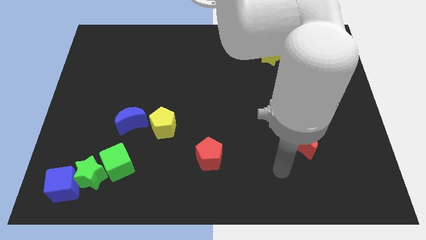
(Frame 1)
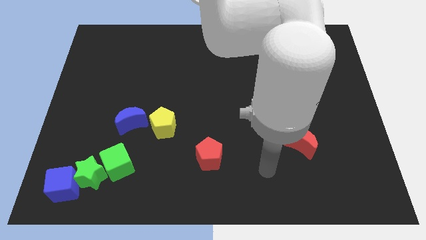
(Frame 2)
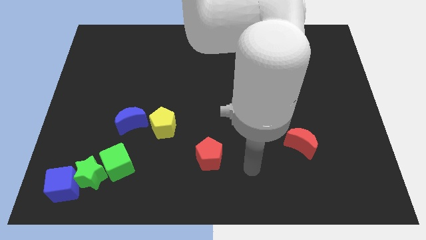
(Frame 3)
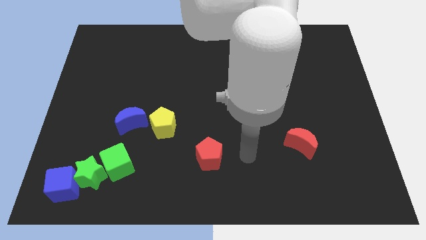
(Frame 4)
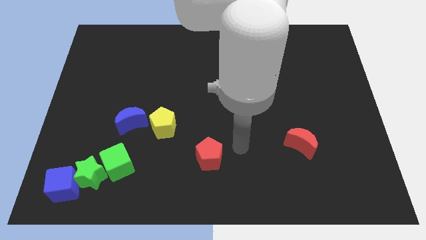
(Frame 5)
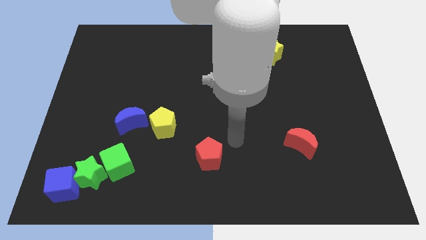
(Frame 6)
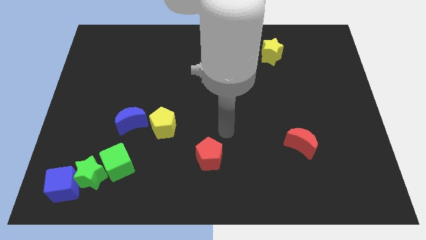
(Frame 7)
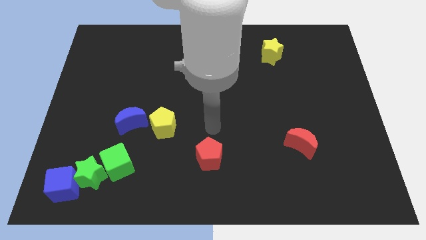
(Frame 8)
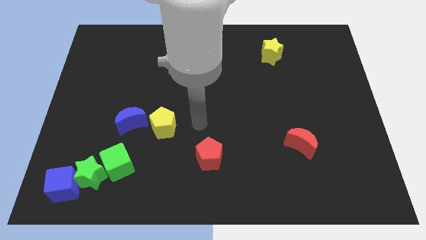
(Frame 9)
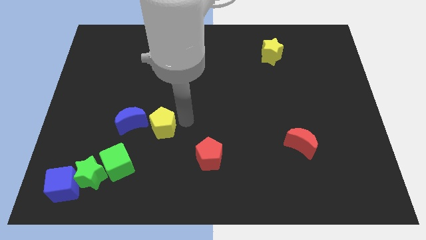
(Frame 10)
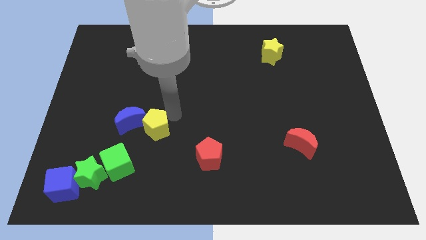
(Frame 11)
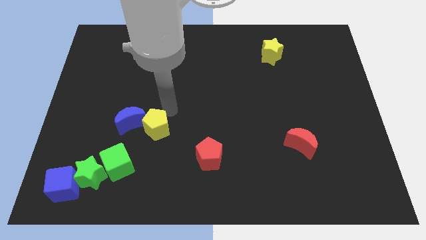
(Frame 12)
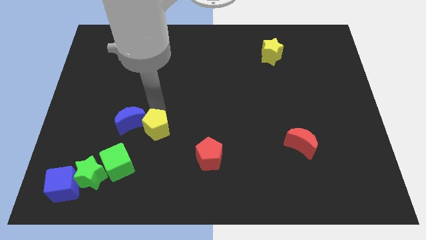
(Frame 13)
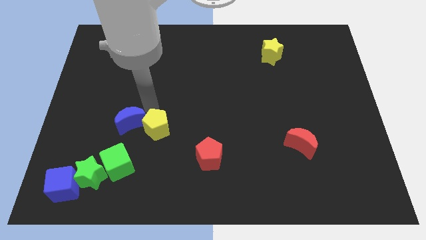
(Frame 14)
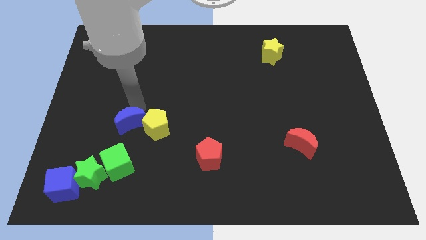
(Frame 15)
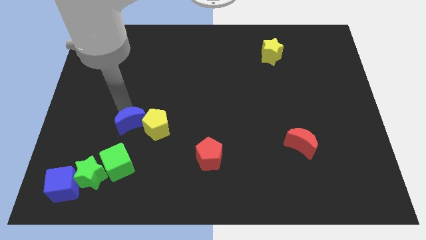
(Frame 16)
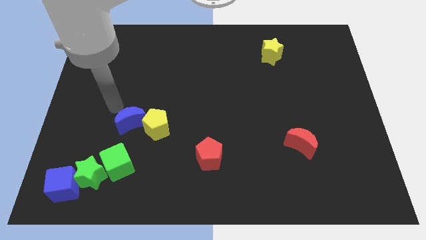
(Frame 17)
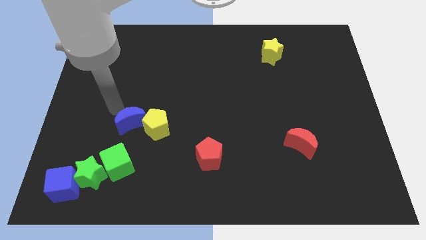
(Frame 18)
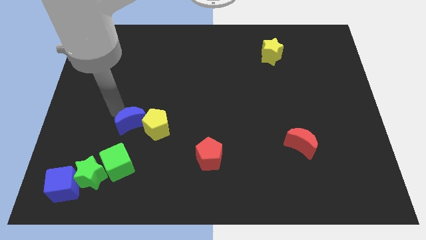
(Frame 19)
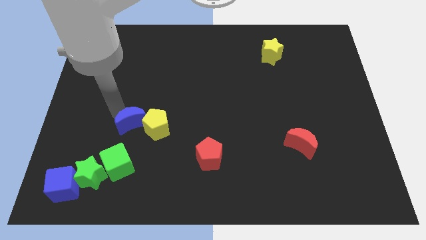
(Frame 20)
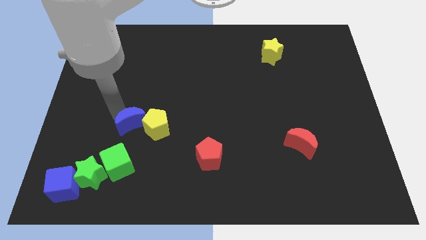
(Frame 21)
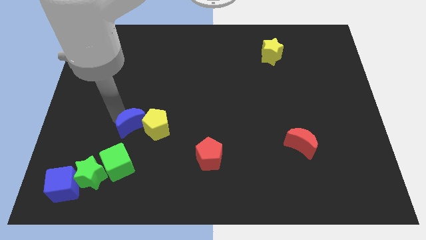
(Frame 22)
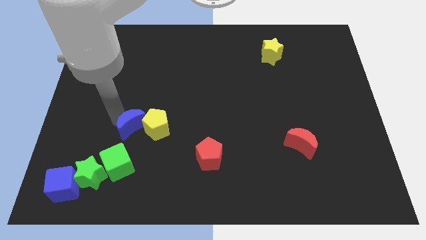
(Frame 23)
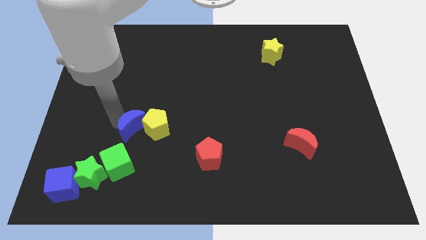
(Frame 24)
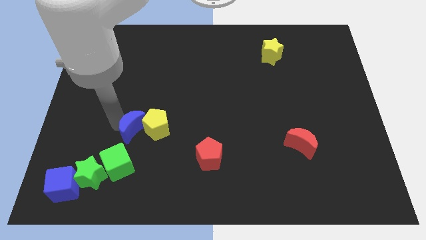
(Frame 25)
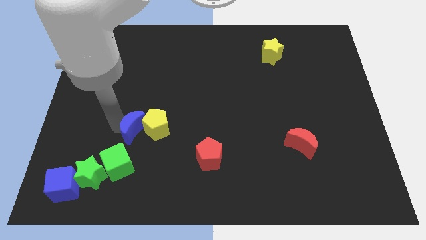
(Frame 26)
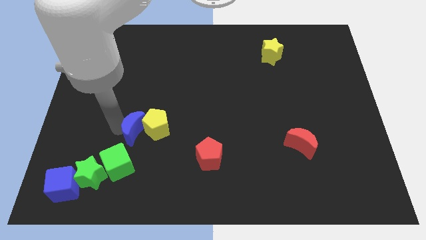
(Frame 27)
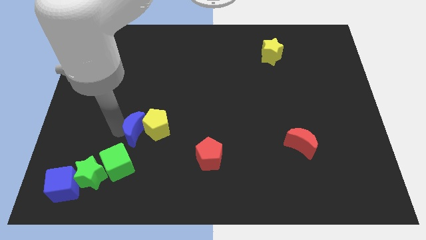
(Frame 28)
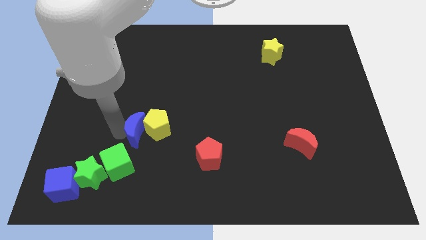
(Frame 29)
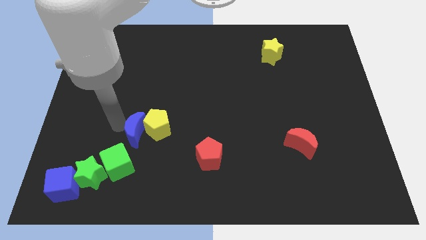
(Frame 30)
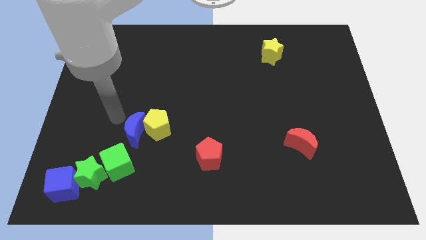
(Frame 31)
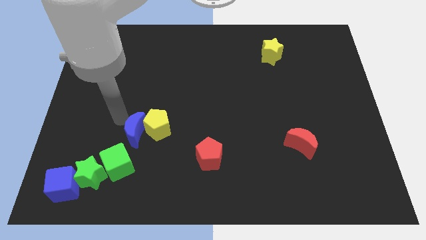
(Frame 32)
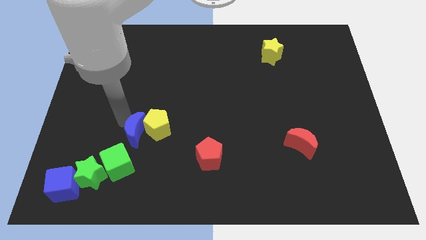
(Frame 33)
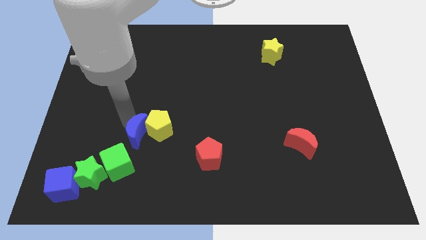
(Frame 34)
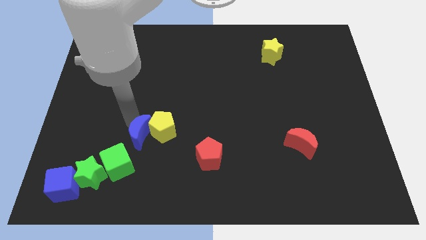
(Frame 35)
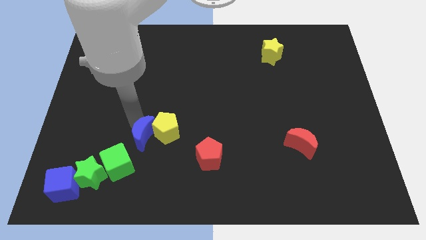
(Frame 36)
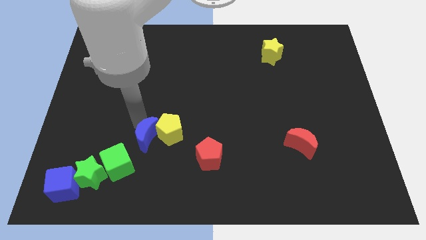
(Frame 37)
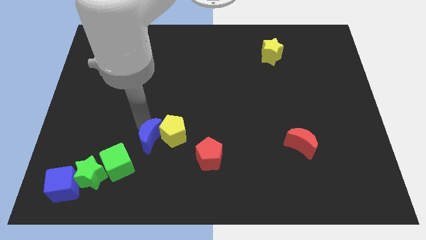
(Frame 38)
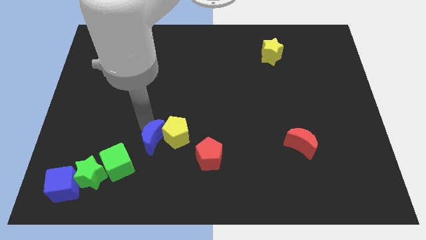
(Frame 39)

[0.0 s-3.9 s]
slightly push the blue moon diagonally downwards and right

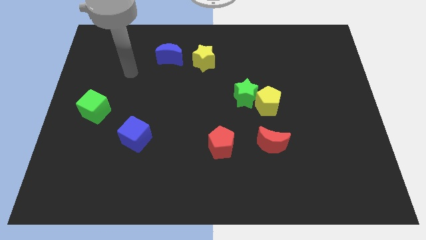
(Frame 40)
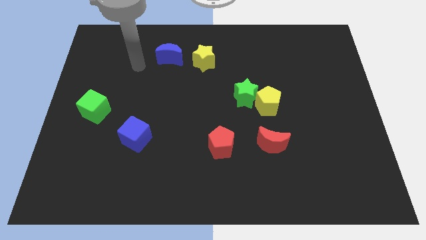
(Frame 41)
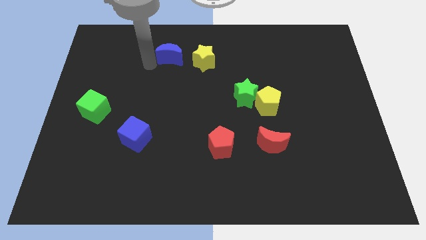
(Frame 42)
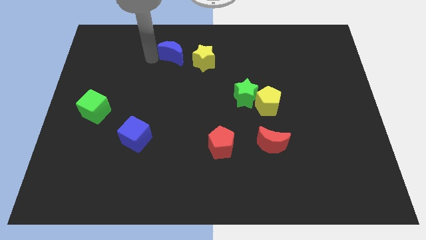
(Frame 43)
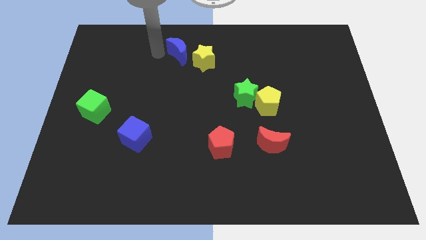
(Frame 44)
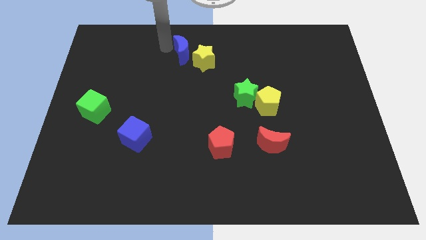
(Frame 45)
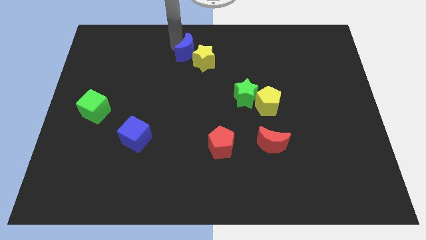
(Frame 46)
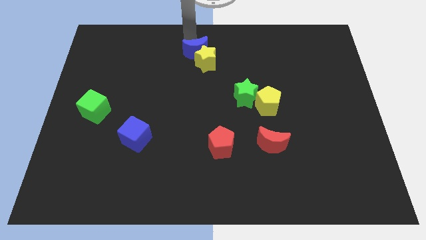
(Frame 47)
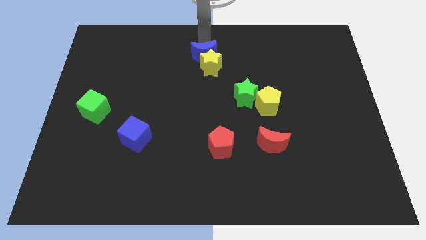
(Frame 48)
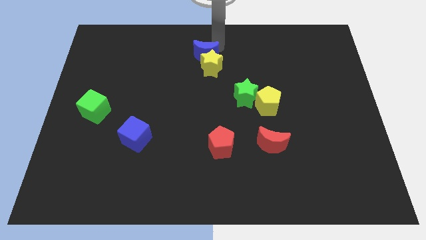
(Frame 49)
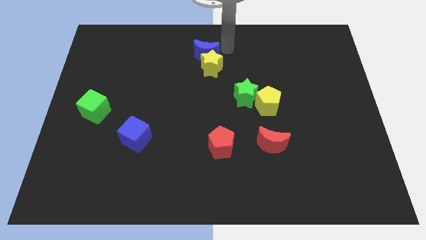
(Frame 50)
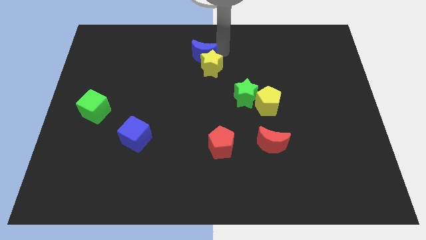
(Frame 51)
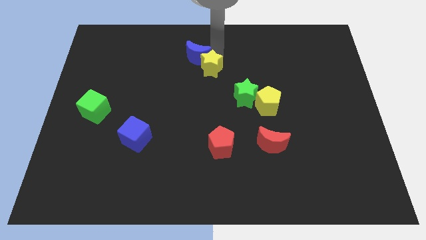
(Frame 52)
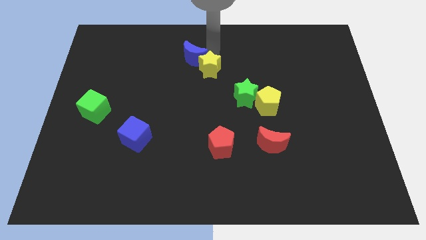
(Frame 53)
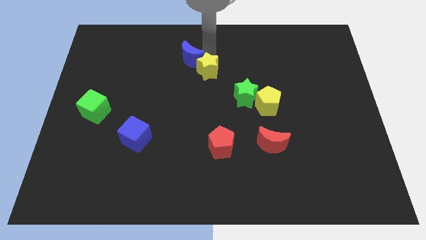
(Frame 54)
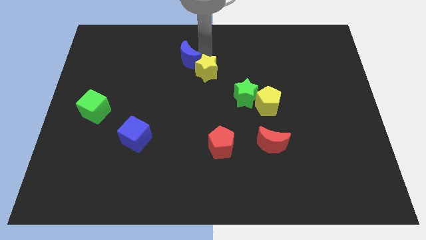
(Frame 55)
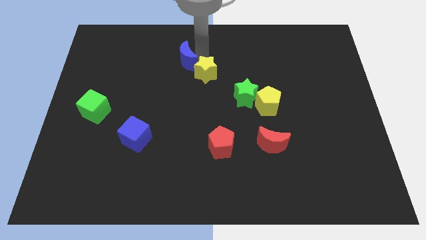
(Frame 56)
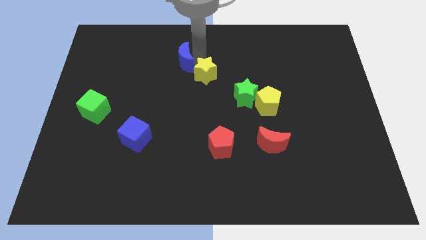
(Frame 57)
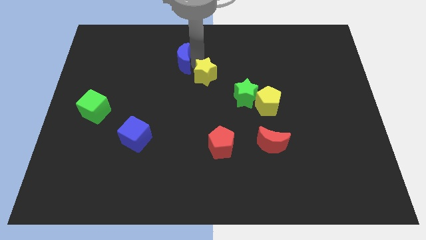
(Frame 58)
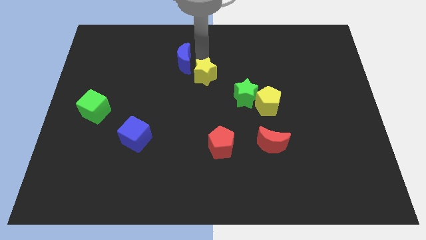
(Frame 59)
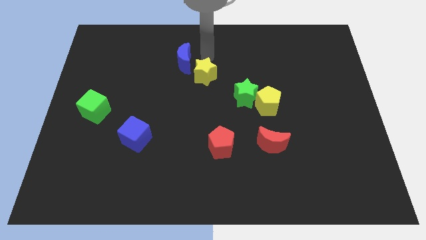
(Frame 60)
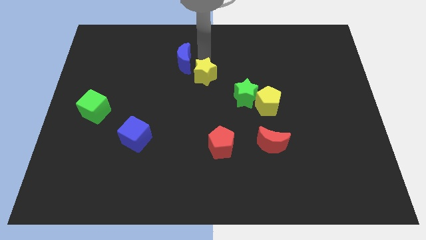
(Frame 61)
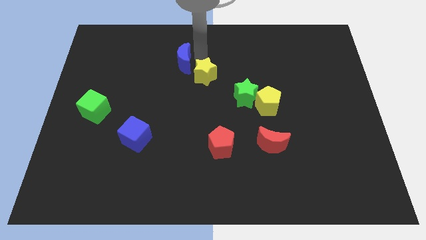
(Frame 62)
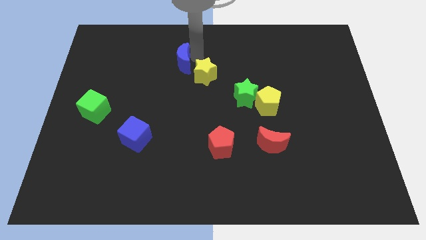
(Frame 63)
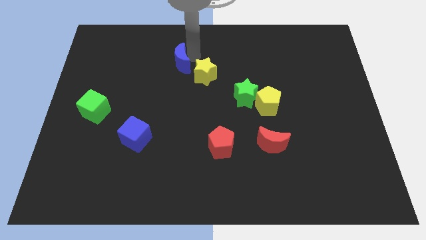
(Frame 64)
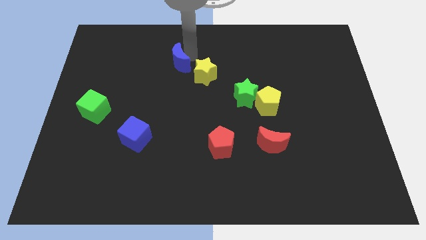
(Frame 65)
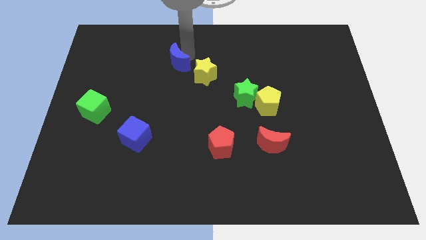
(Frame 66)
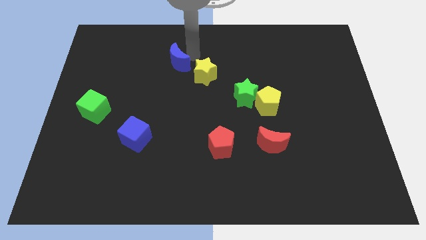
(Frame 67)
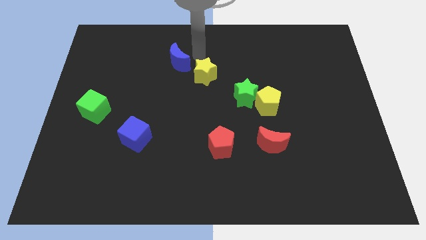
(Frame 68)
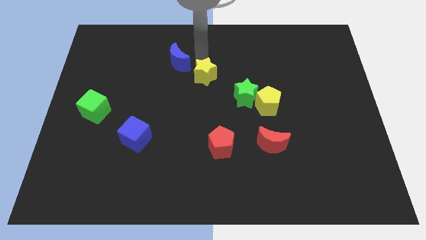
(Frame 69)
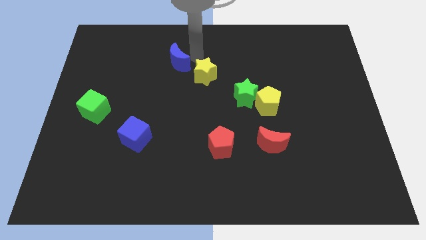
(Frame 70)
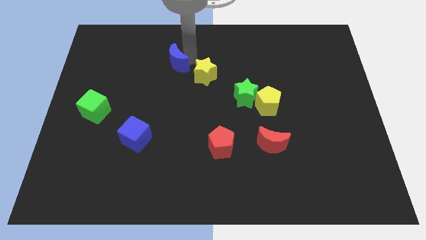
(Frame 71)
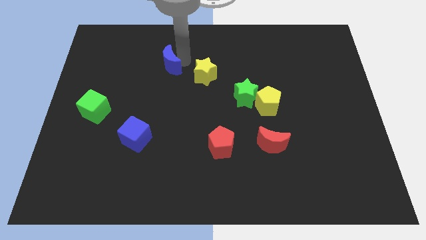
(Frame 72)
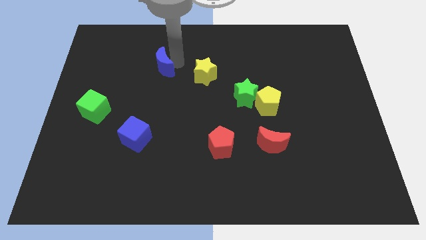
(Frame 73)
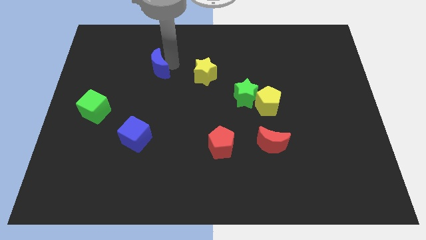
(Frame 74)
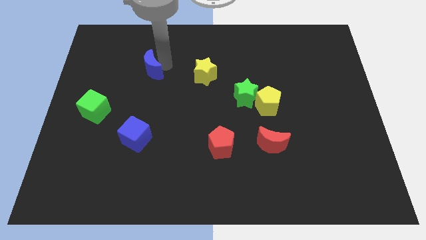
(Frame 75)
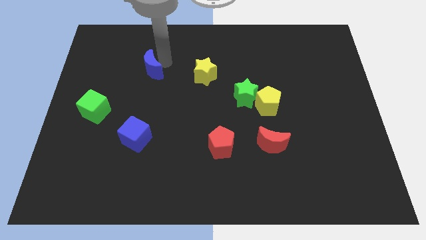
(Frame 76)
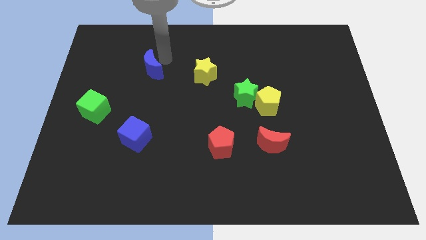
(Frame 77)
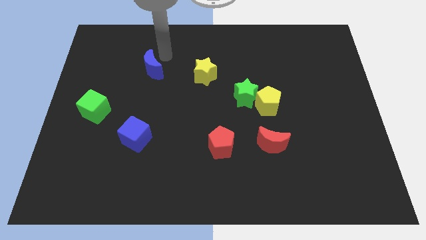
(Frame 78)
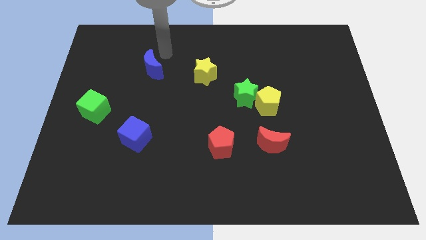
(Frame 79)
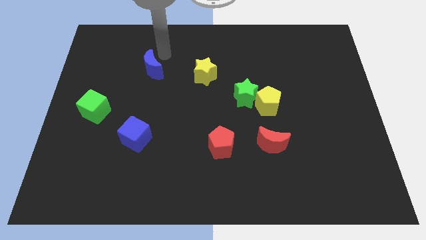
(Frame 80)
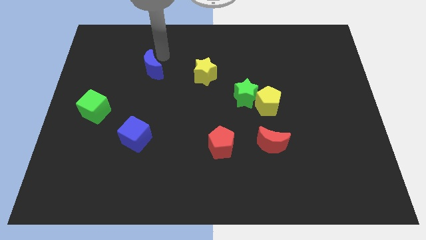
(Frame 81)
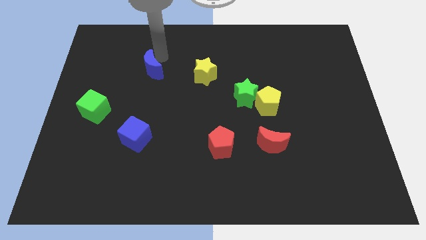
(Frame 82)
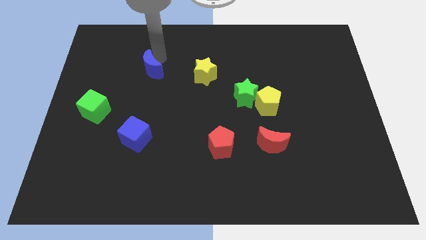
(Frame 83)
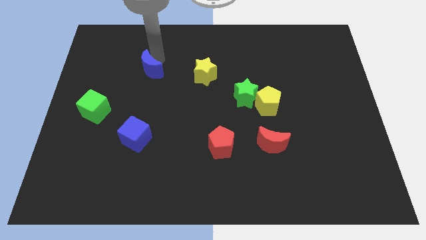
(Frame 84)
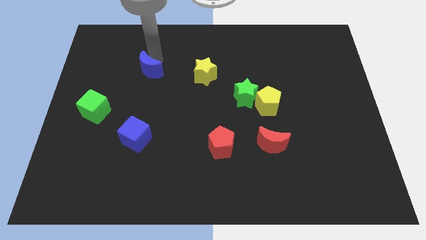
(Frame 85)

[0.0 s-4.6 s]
slide the blue moon downwards and to the left a bit
